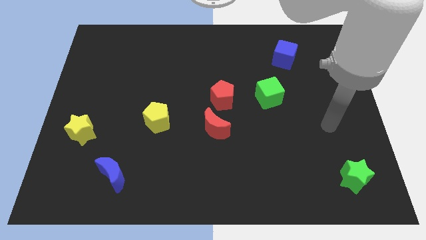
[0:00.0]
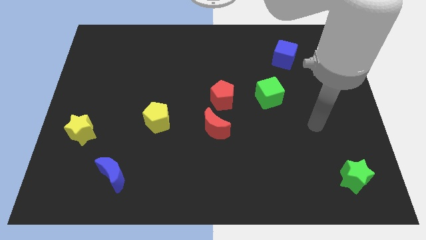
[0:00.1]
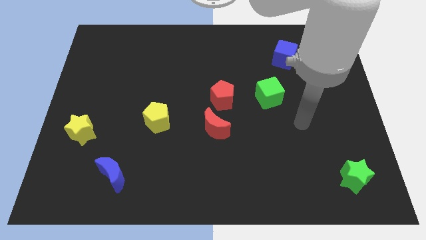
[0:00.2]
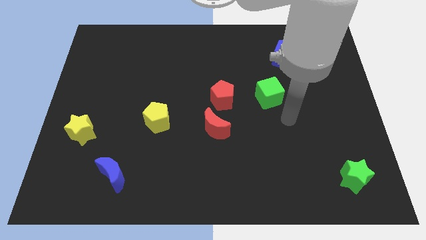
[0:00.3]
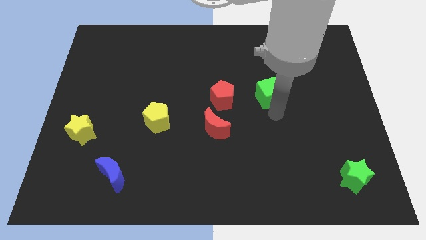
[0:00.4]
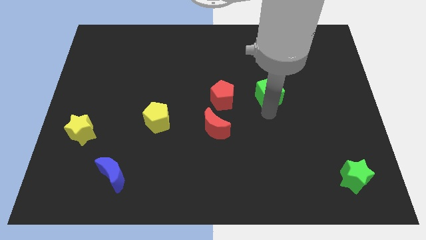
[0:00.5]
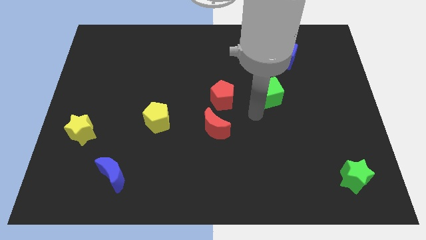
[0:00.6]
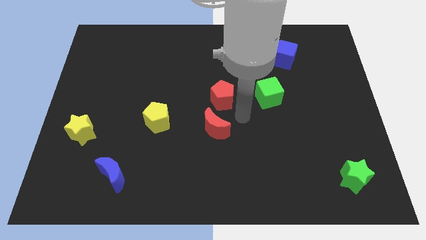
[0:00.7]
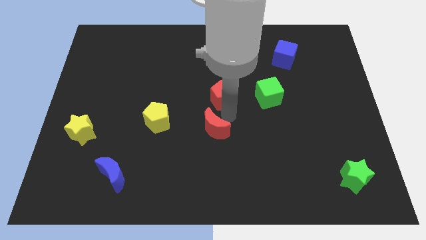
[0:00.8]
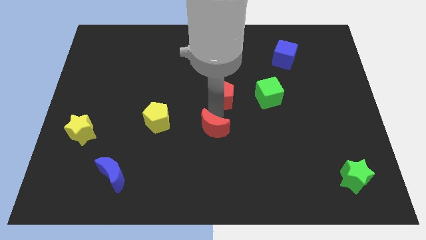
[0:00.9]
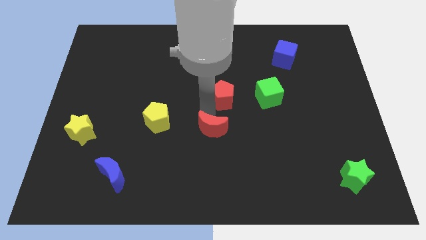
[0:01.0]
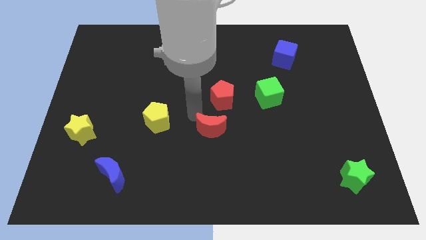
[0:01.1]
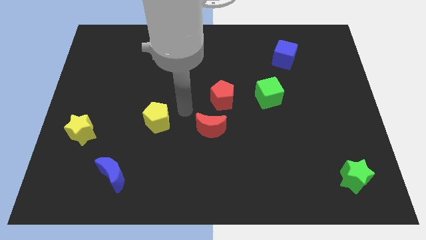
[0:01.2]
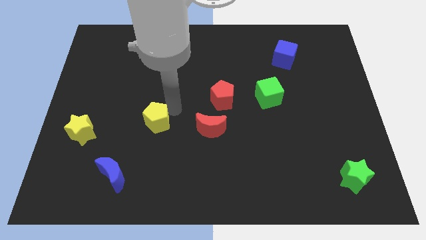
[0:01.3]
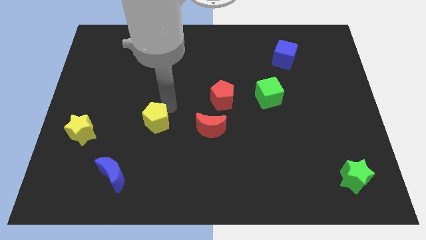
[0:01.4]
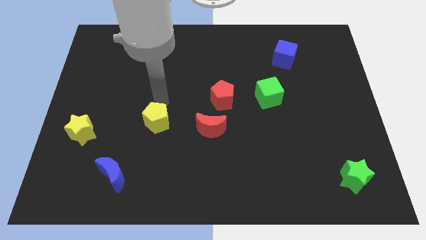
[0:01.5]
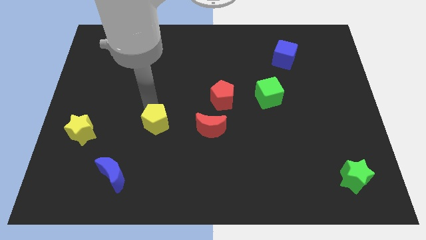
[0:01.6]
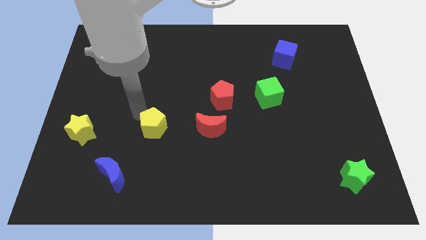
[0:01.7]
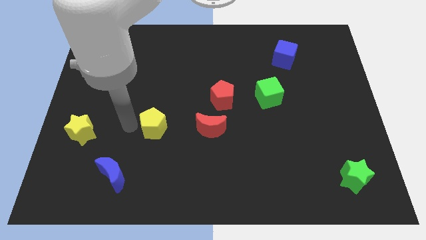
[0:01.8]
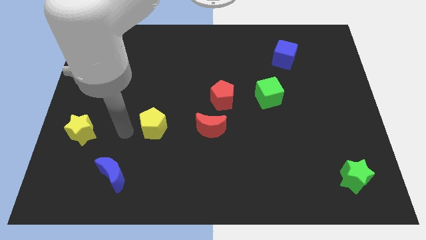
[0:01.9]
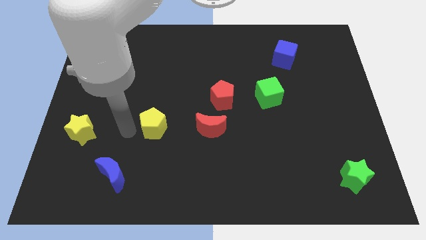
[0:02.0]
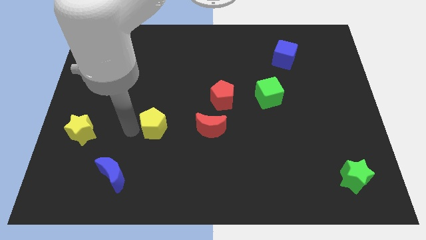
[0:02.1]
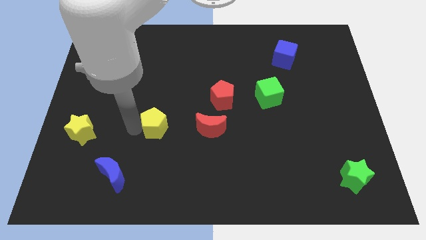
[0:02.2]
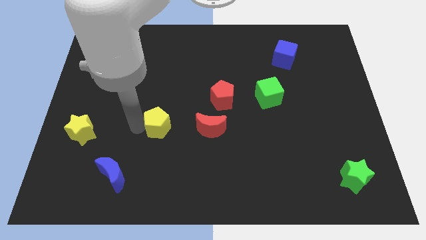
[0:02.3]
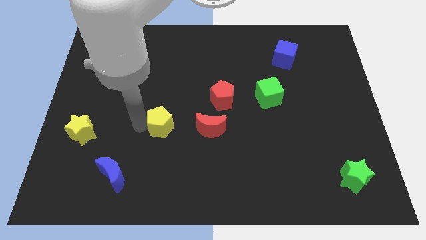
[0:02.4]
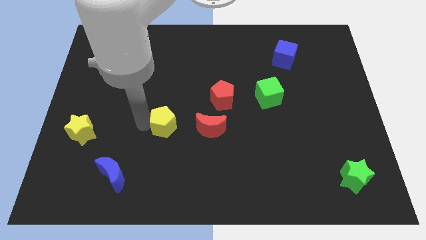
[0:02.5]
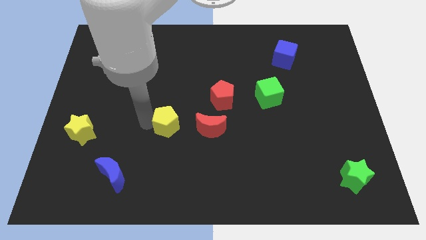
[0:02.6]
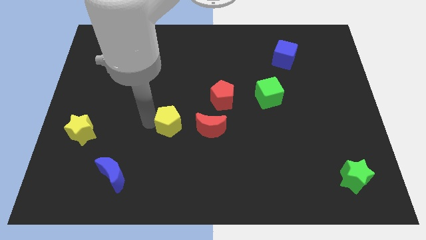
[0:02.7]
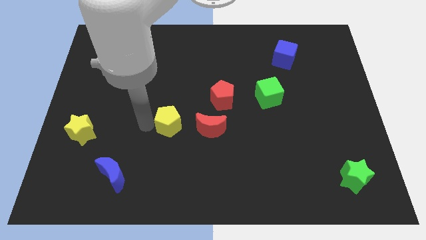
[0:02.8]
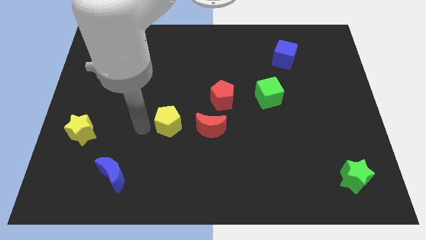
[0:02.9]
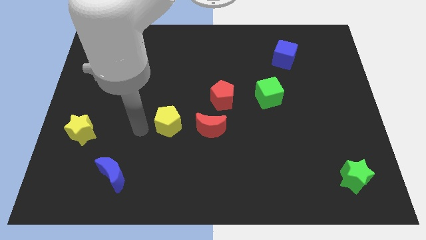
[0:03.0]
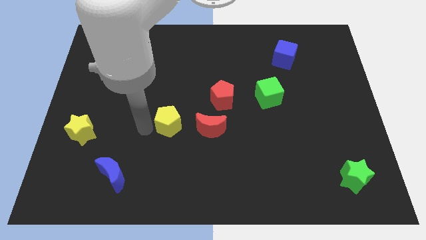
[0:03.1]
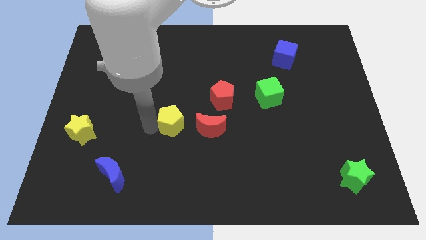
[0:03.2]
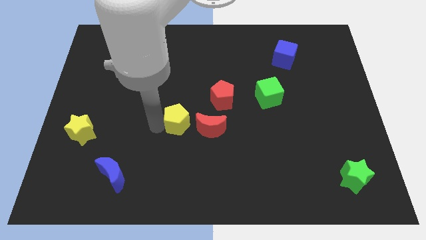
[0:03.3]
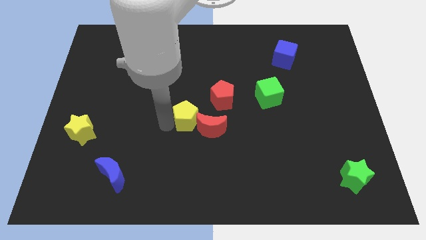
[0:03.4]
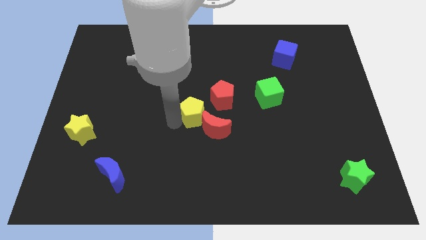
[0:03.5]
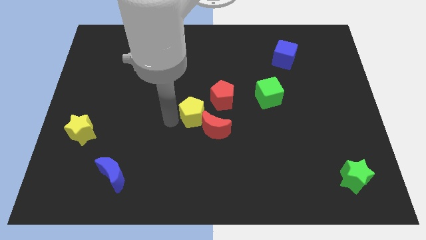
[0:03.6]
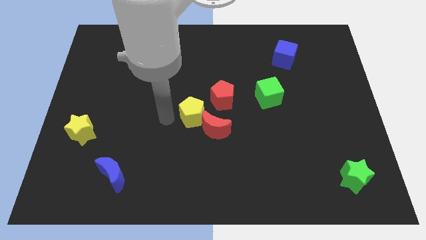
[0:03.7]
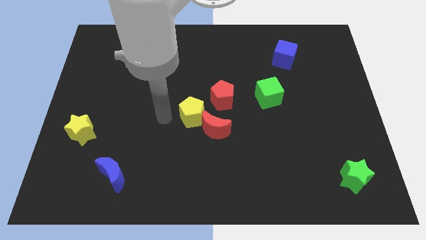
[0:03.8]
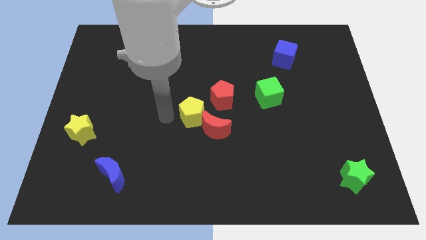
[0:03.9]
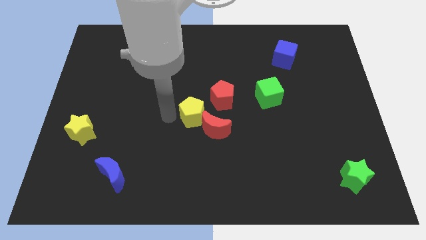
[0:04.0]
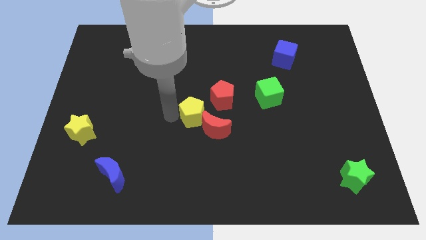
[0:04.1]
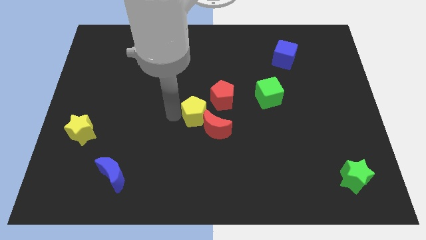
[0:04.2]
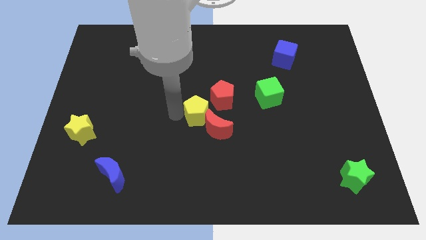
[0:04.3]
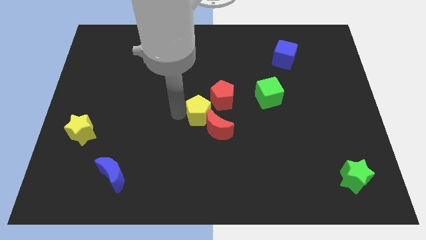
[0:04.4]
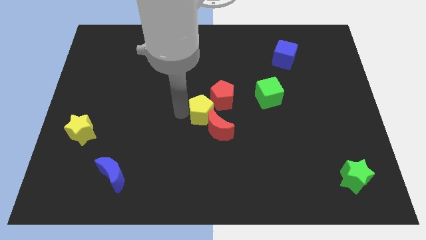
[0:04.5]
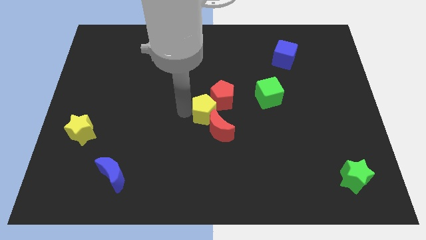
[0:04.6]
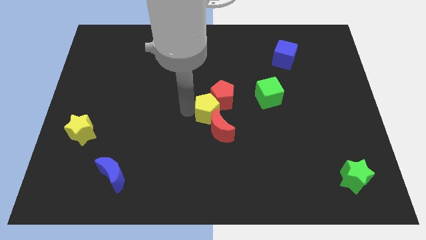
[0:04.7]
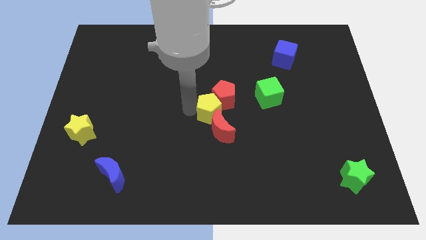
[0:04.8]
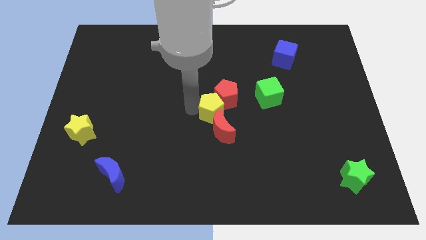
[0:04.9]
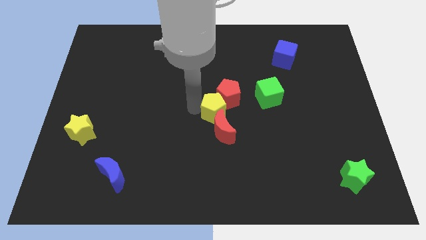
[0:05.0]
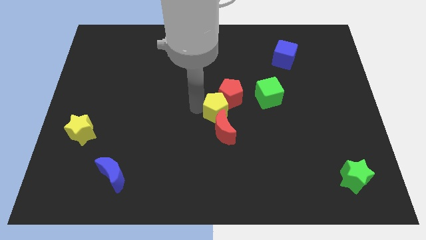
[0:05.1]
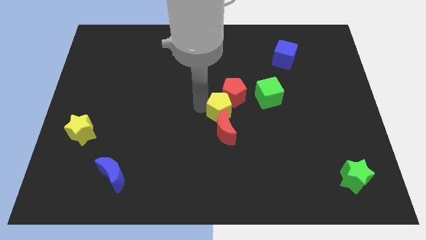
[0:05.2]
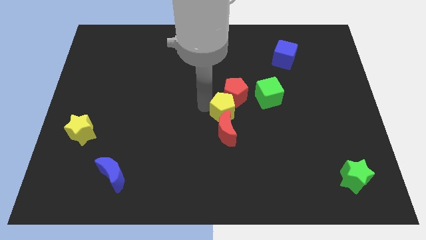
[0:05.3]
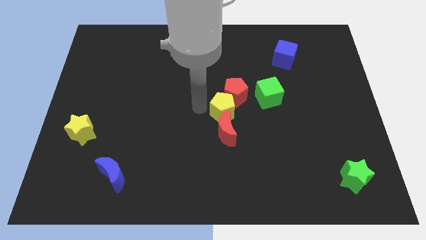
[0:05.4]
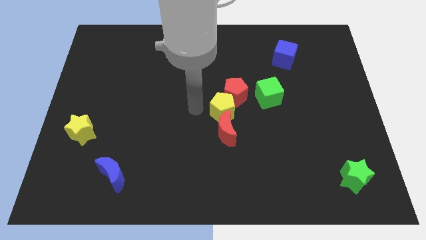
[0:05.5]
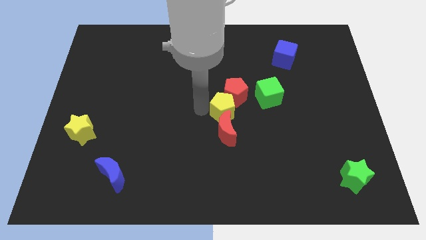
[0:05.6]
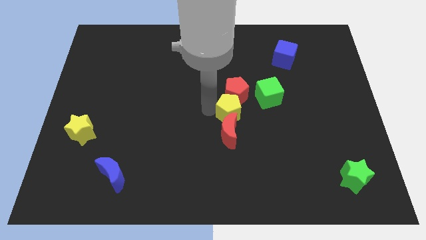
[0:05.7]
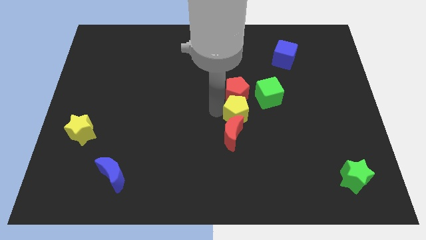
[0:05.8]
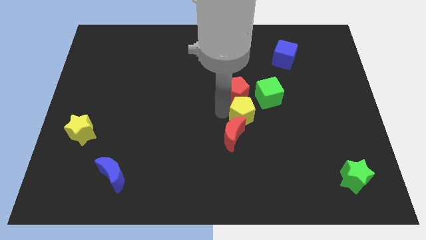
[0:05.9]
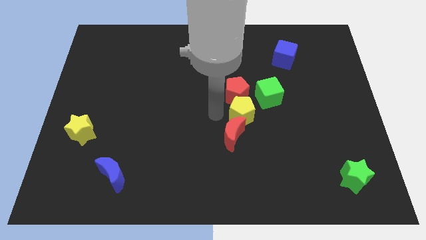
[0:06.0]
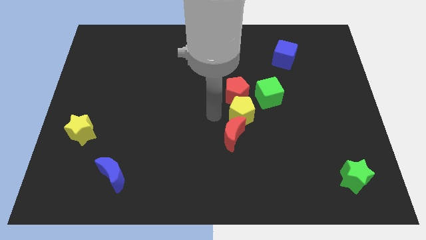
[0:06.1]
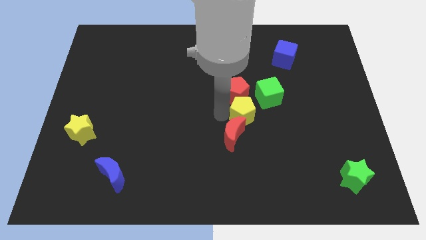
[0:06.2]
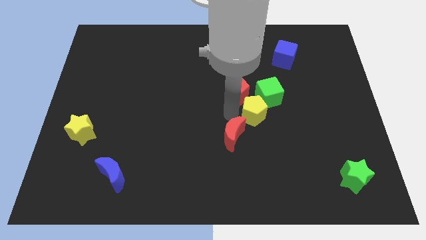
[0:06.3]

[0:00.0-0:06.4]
push the yellow pentagon to the right

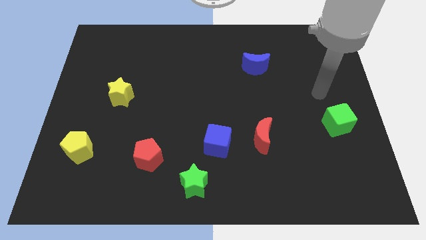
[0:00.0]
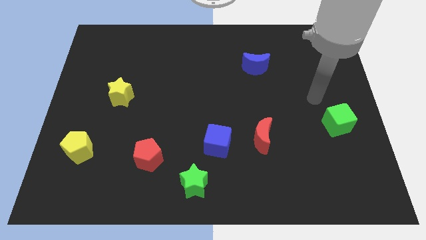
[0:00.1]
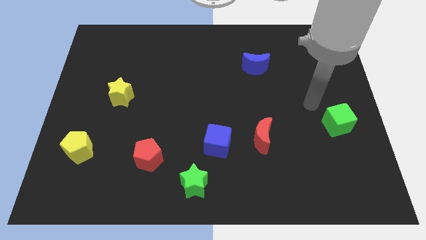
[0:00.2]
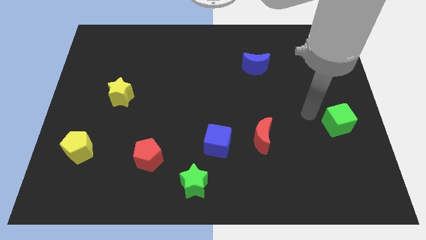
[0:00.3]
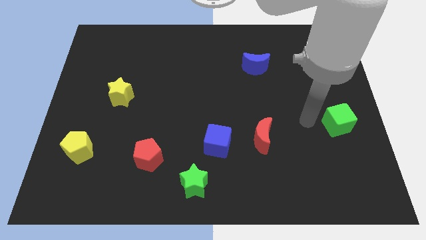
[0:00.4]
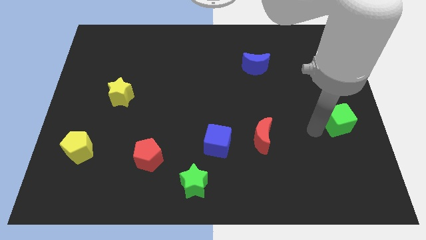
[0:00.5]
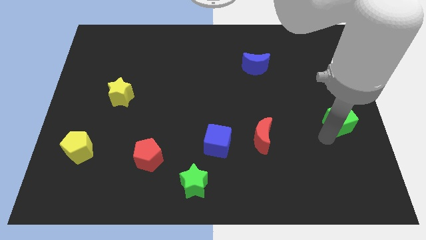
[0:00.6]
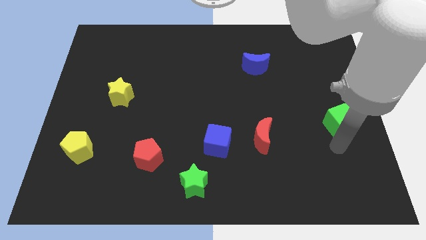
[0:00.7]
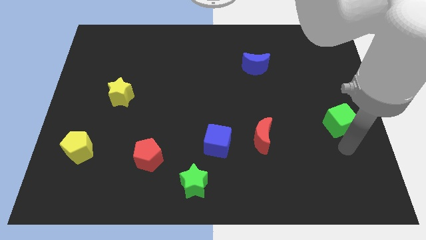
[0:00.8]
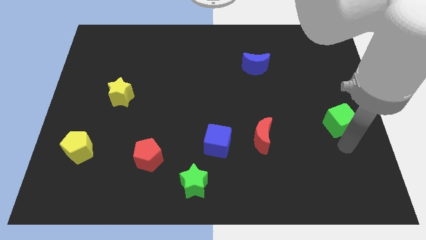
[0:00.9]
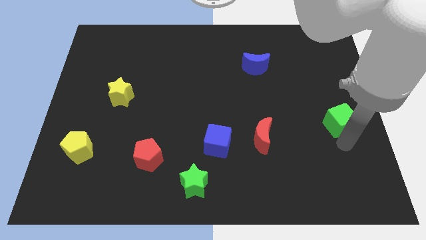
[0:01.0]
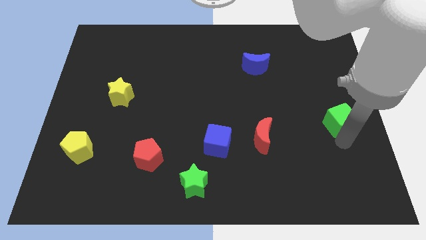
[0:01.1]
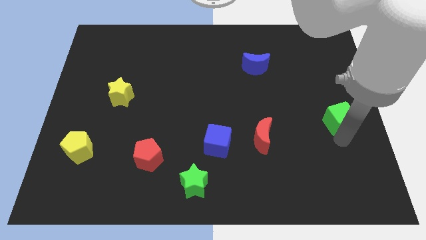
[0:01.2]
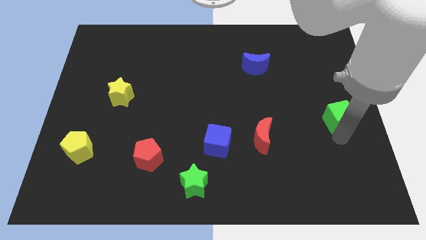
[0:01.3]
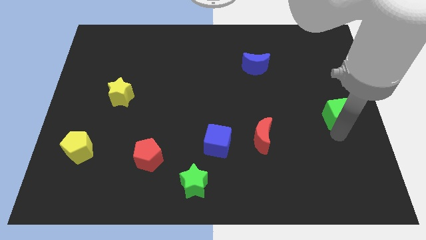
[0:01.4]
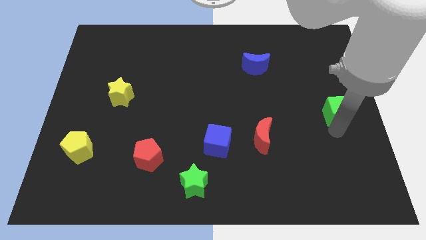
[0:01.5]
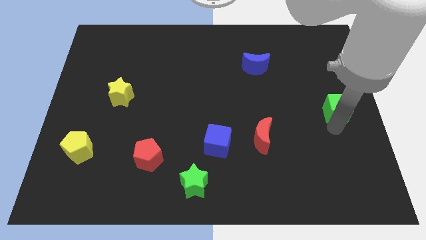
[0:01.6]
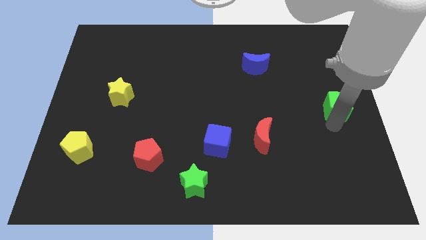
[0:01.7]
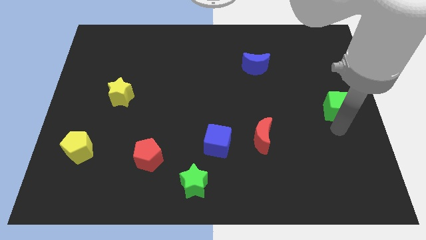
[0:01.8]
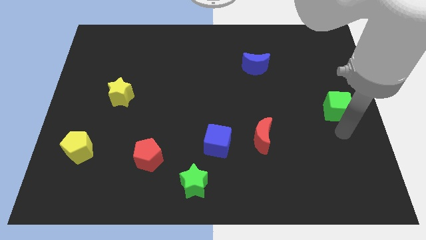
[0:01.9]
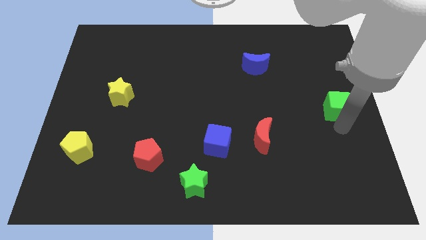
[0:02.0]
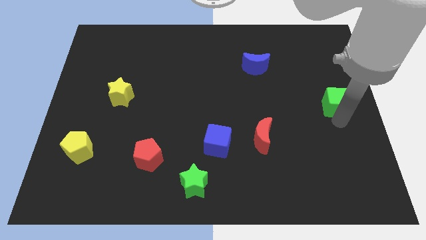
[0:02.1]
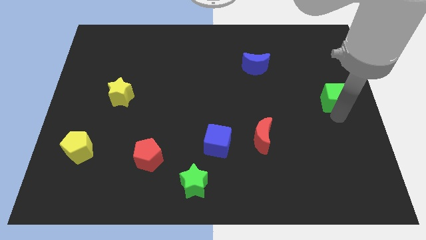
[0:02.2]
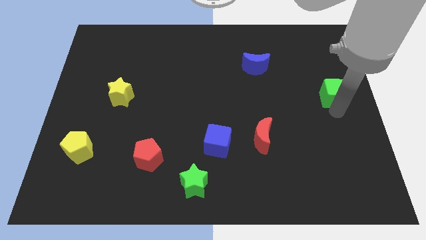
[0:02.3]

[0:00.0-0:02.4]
slightly slide the green cube up
